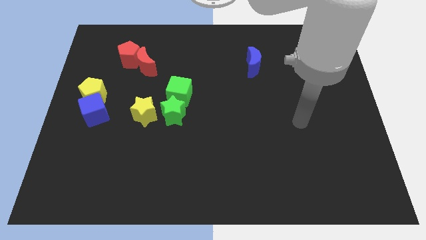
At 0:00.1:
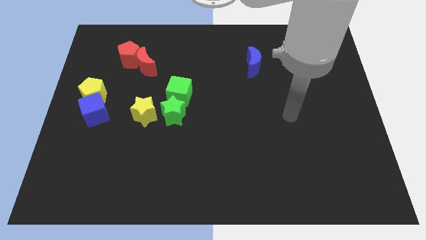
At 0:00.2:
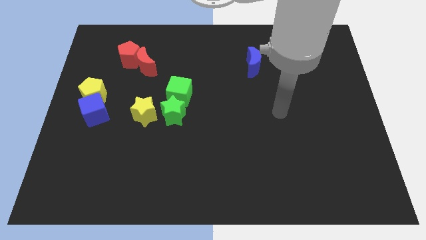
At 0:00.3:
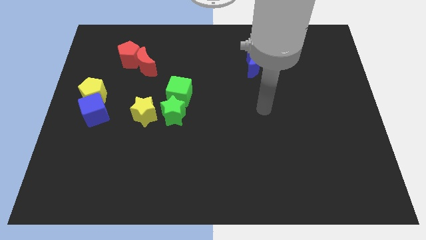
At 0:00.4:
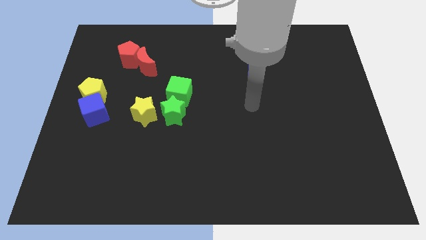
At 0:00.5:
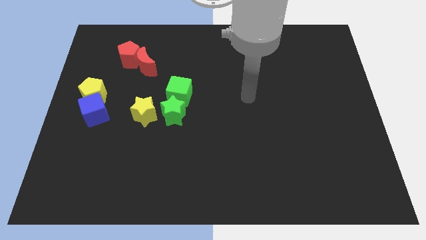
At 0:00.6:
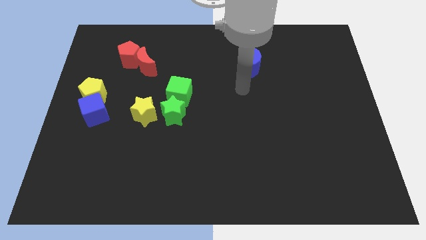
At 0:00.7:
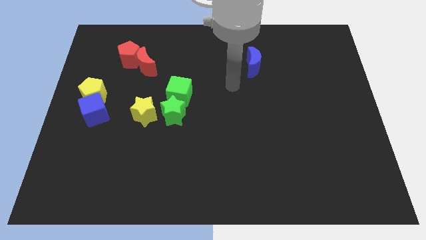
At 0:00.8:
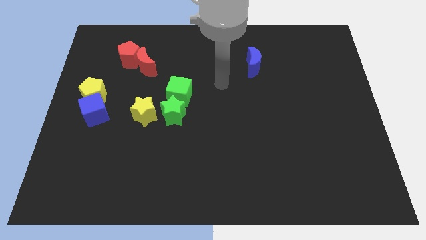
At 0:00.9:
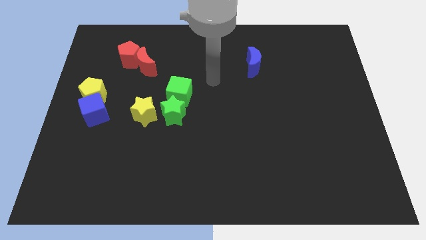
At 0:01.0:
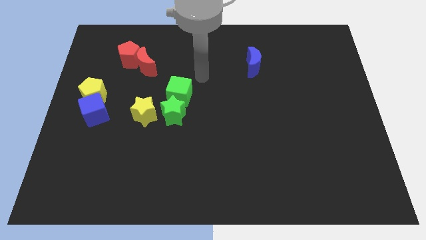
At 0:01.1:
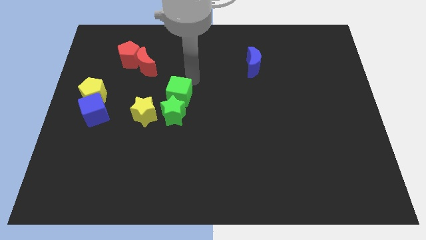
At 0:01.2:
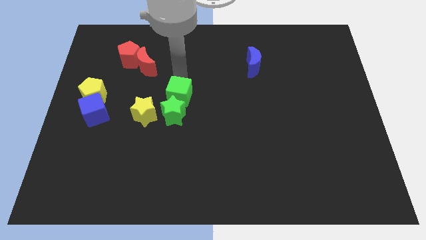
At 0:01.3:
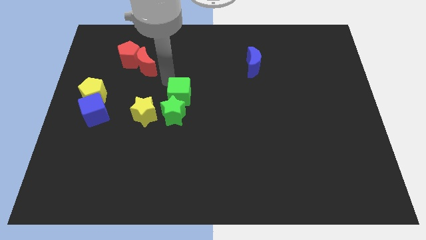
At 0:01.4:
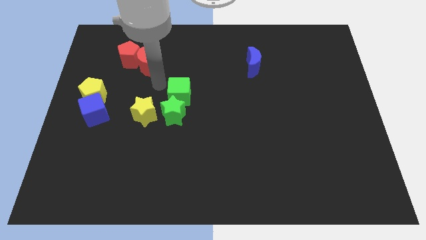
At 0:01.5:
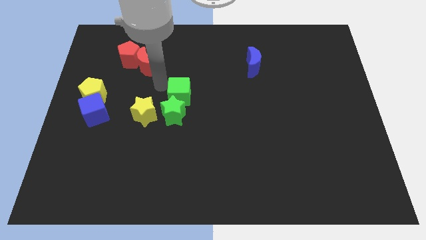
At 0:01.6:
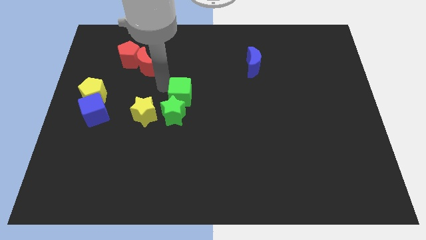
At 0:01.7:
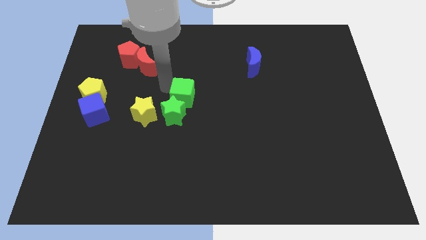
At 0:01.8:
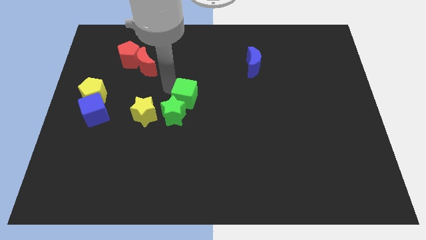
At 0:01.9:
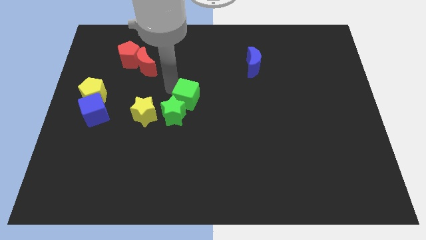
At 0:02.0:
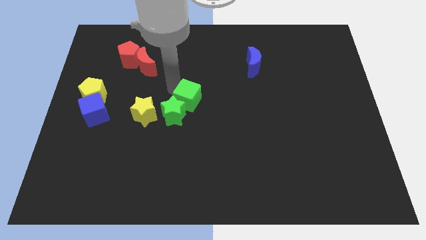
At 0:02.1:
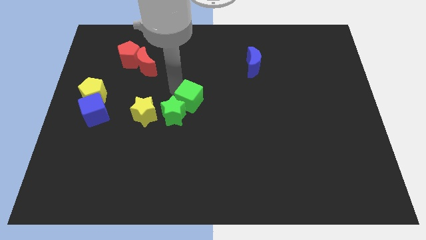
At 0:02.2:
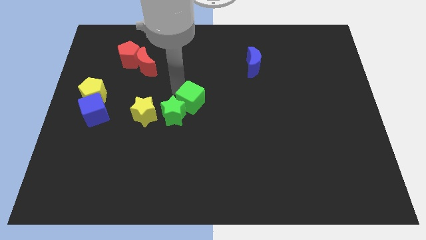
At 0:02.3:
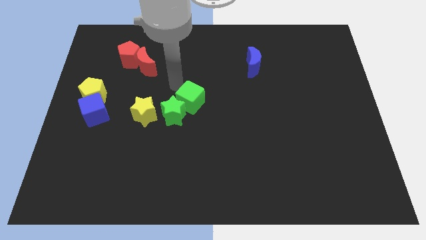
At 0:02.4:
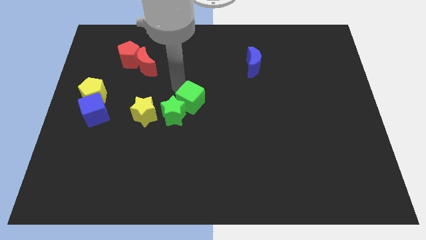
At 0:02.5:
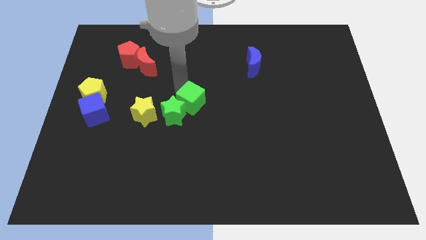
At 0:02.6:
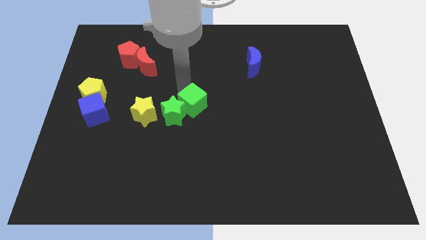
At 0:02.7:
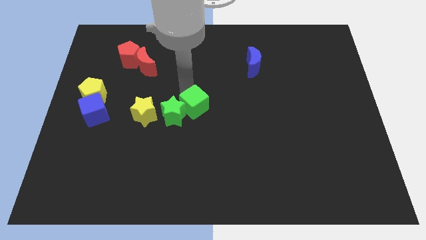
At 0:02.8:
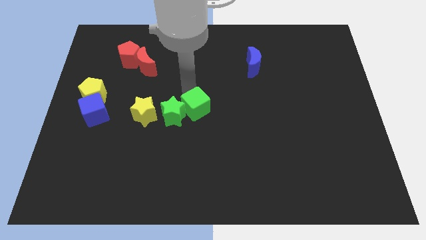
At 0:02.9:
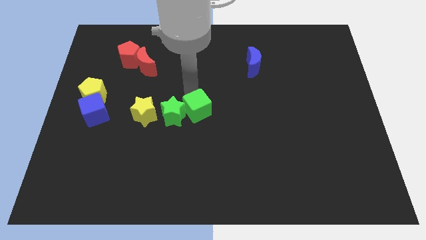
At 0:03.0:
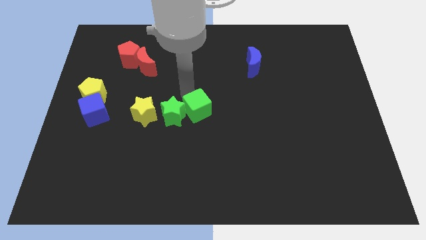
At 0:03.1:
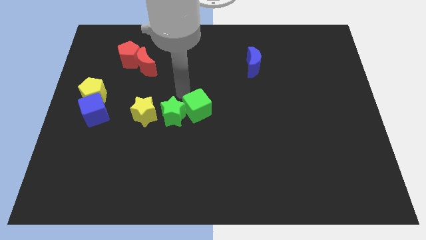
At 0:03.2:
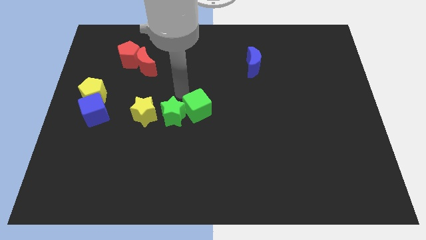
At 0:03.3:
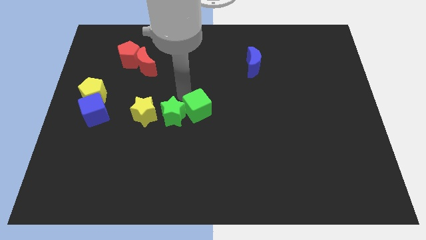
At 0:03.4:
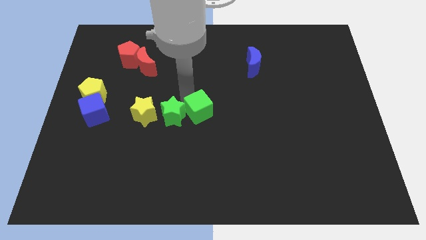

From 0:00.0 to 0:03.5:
slightly move the green cube downwards and then right

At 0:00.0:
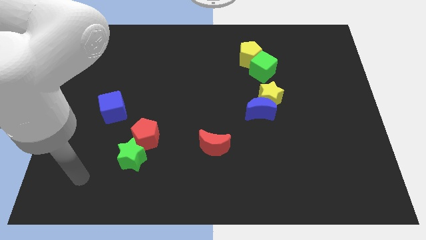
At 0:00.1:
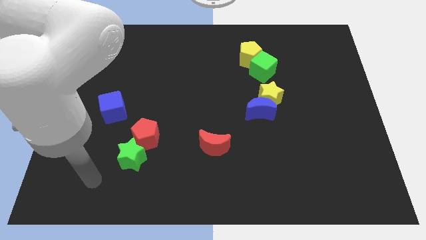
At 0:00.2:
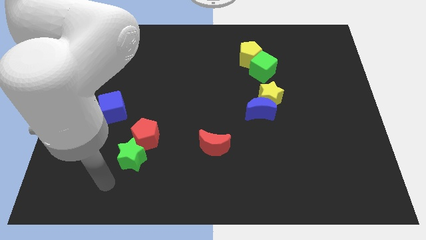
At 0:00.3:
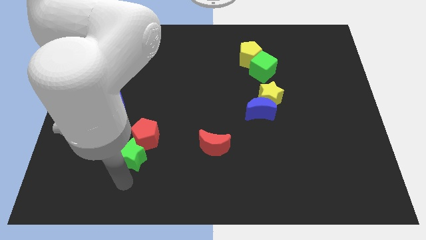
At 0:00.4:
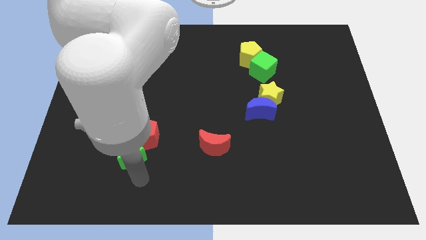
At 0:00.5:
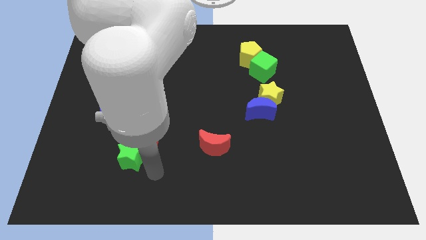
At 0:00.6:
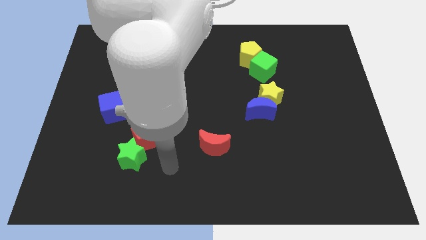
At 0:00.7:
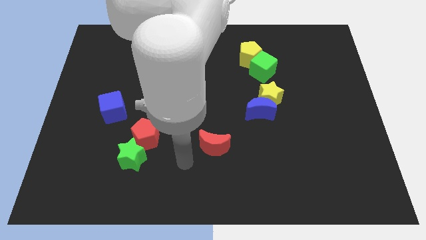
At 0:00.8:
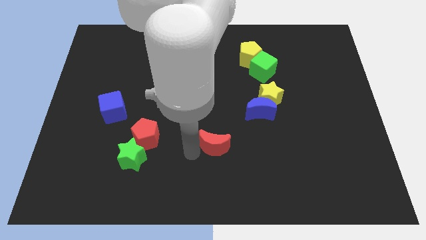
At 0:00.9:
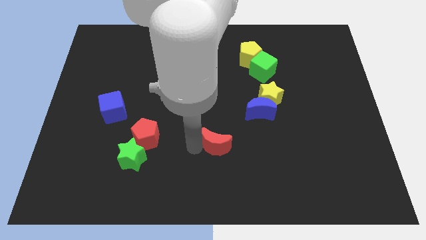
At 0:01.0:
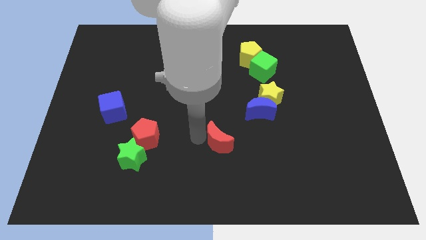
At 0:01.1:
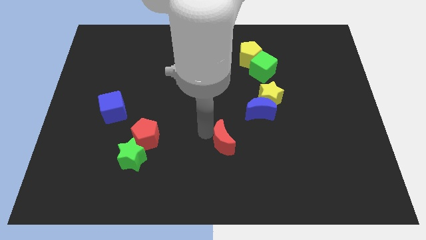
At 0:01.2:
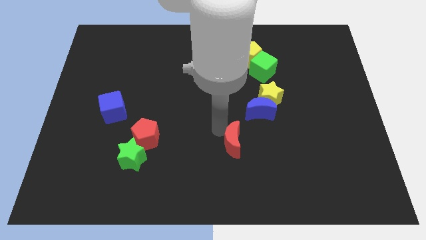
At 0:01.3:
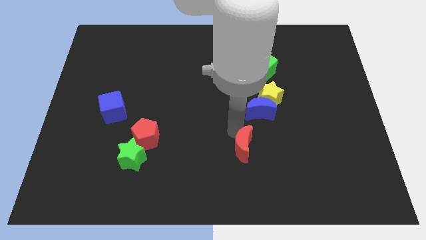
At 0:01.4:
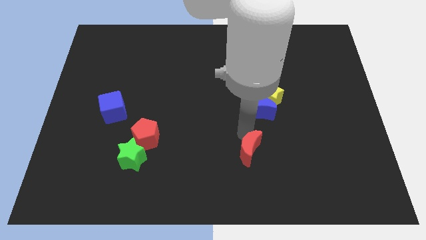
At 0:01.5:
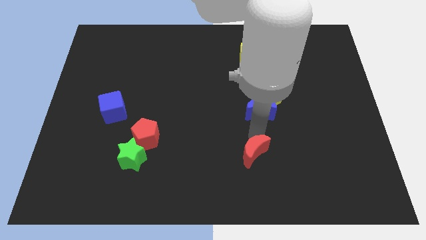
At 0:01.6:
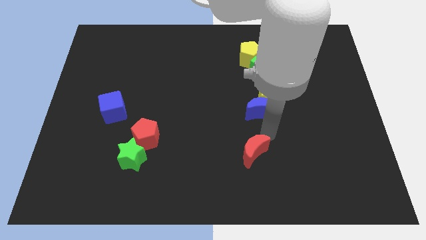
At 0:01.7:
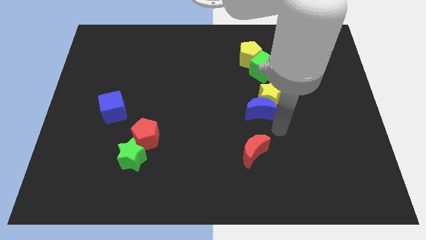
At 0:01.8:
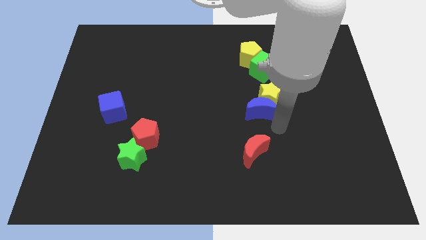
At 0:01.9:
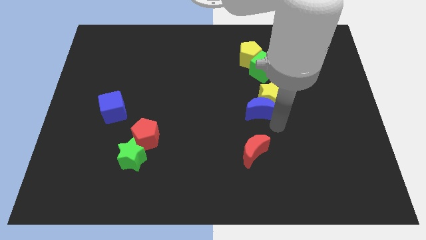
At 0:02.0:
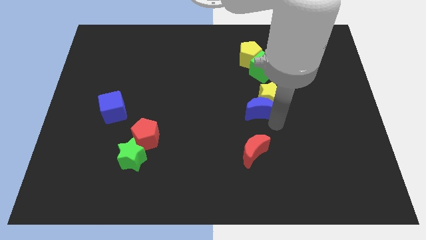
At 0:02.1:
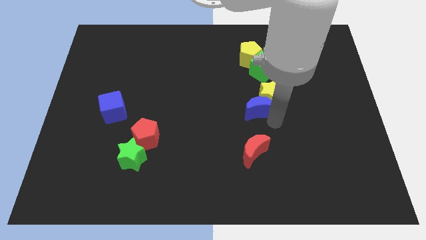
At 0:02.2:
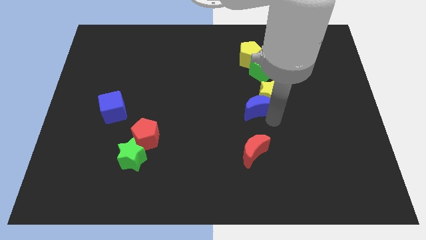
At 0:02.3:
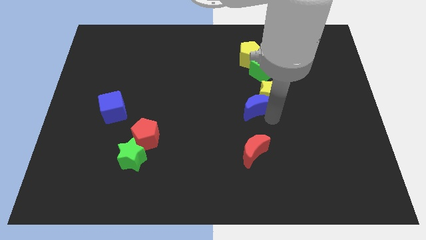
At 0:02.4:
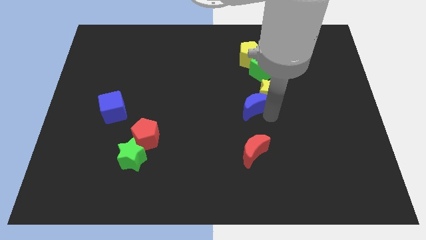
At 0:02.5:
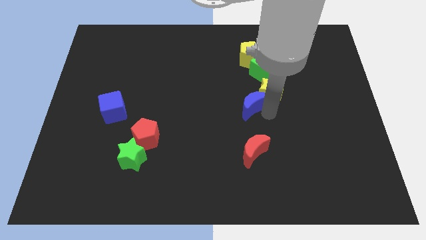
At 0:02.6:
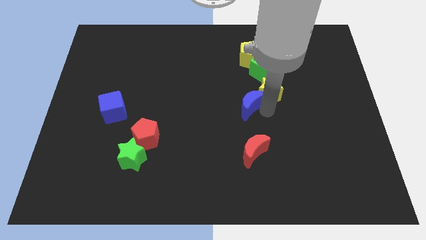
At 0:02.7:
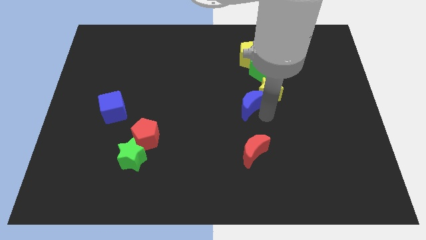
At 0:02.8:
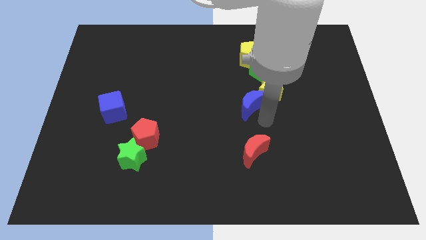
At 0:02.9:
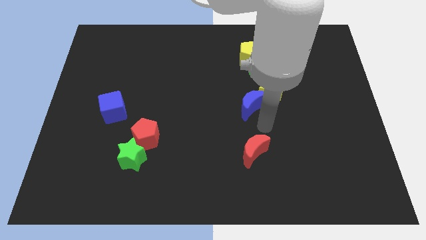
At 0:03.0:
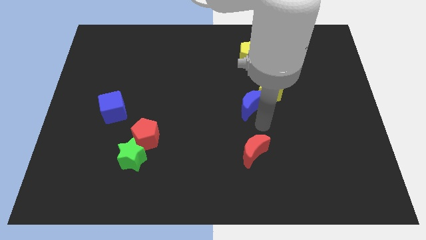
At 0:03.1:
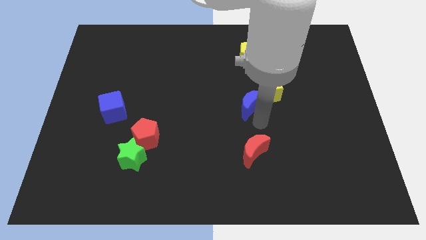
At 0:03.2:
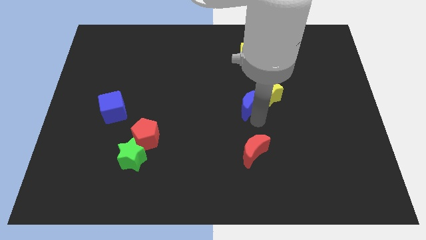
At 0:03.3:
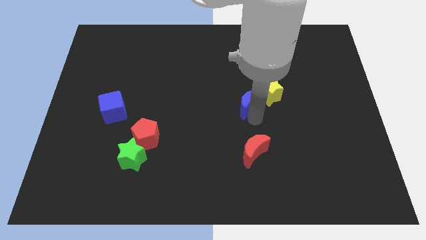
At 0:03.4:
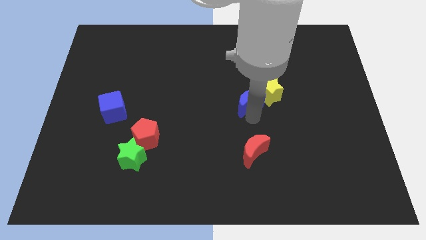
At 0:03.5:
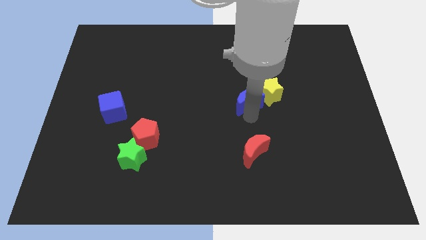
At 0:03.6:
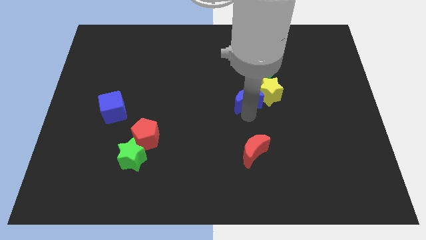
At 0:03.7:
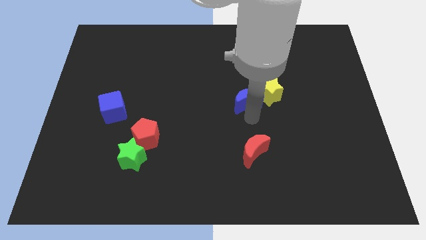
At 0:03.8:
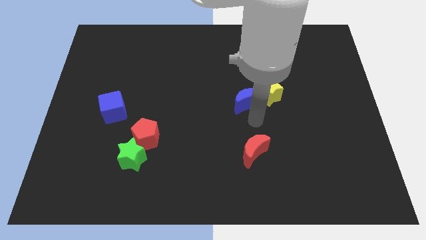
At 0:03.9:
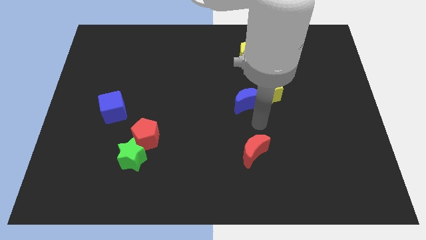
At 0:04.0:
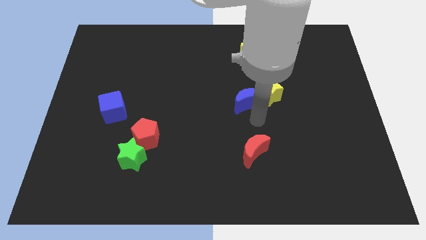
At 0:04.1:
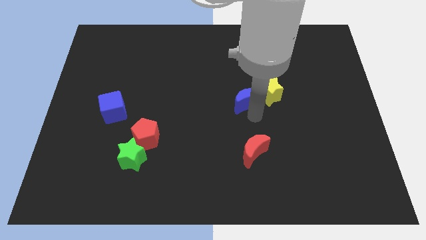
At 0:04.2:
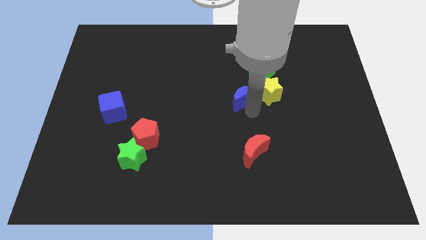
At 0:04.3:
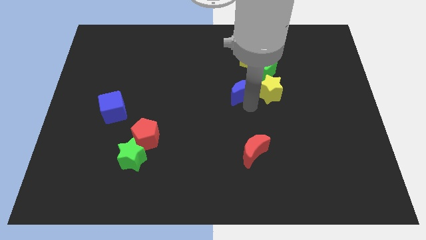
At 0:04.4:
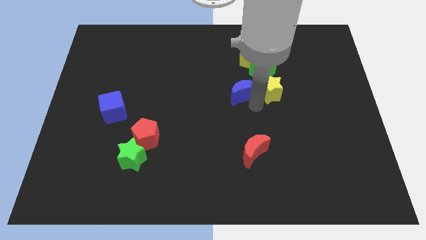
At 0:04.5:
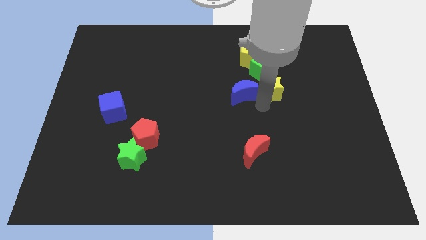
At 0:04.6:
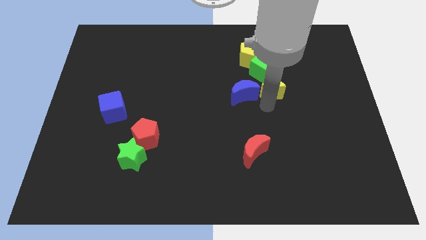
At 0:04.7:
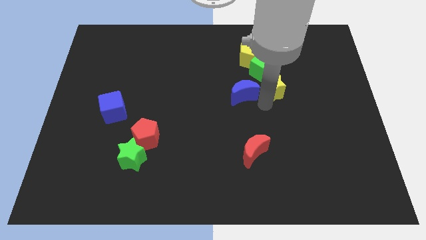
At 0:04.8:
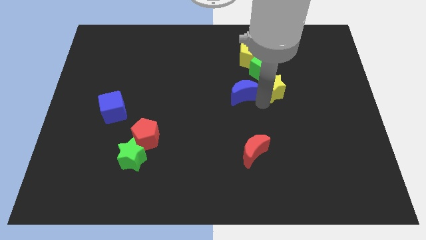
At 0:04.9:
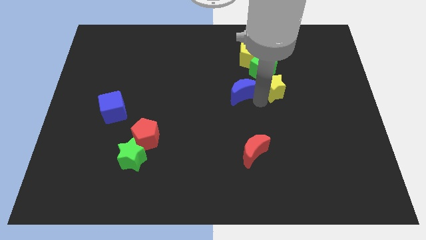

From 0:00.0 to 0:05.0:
push the blue moon a little bit up and to the left
